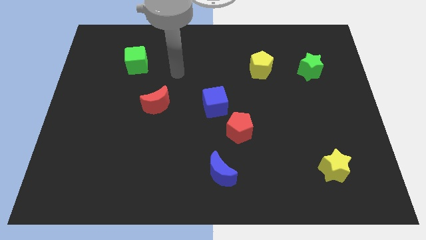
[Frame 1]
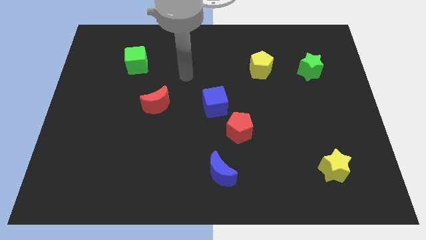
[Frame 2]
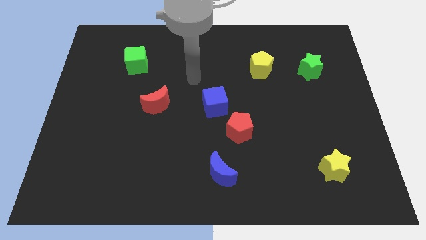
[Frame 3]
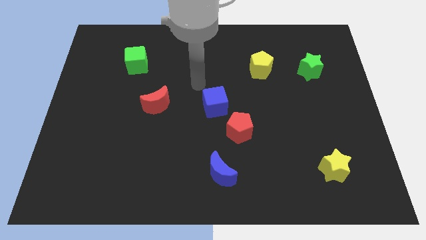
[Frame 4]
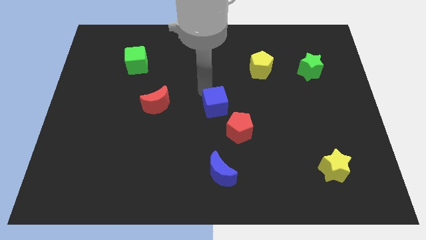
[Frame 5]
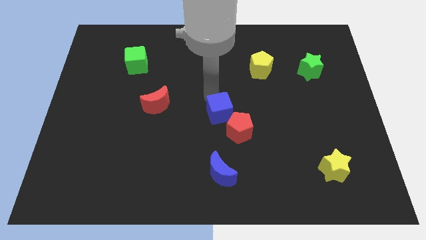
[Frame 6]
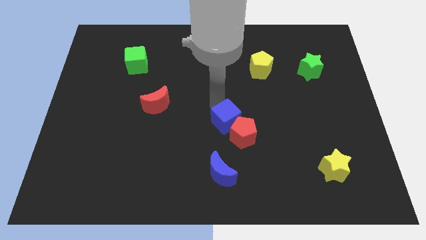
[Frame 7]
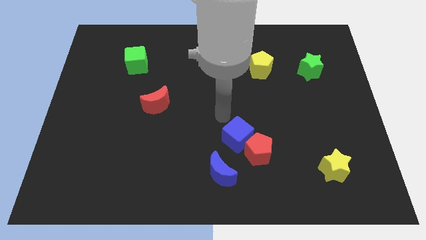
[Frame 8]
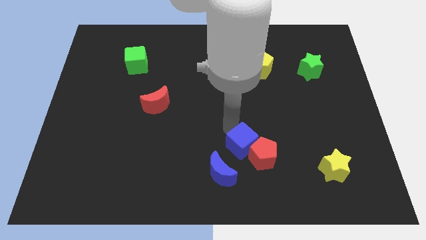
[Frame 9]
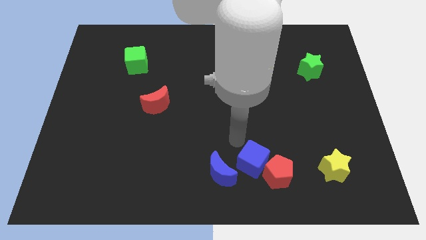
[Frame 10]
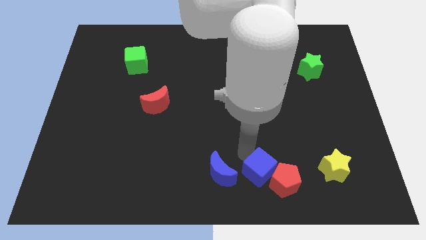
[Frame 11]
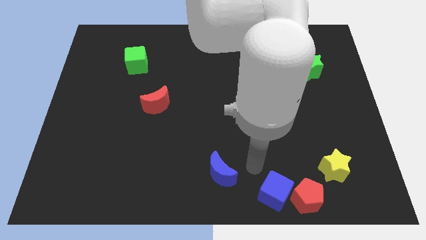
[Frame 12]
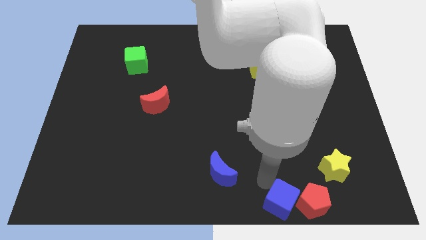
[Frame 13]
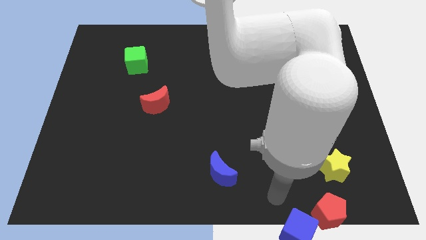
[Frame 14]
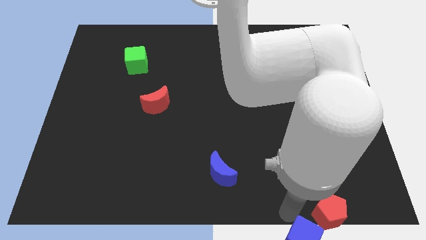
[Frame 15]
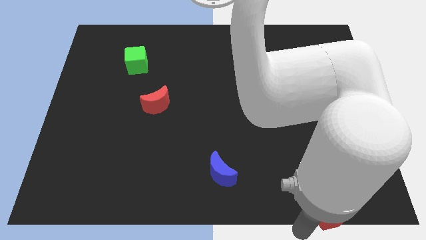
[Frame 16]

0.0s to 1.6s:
move the red pentagon away from the blue cube

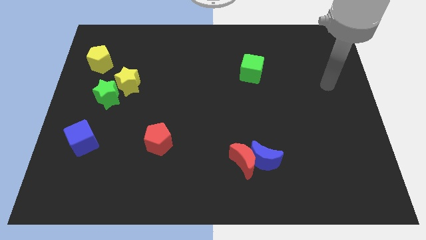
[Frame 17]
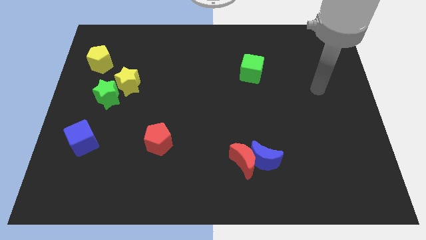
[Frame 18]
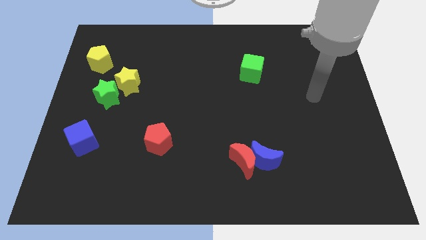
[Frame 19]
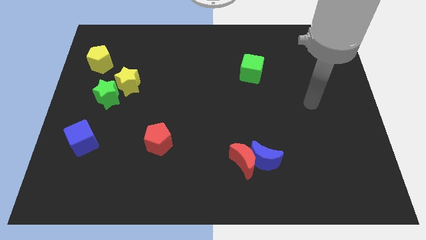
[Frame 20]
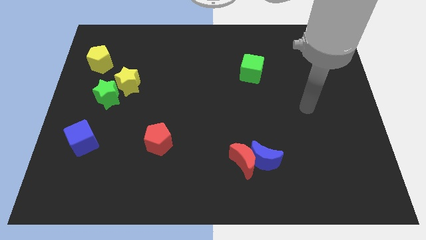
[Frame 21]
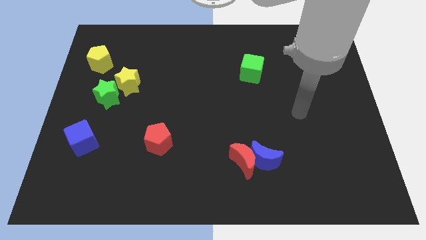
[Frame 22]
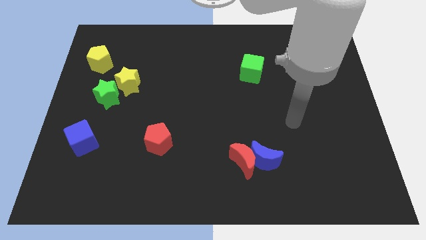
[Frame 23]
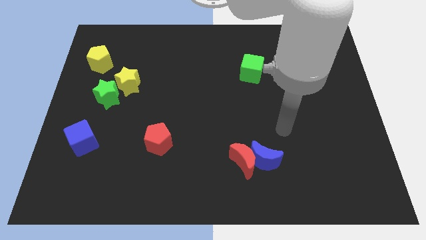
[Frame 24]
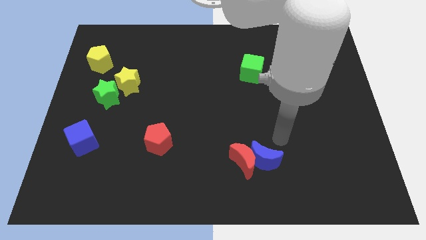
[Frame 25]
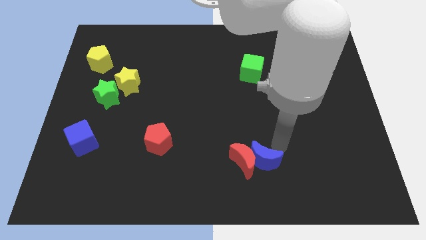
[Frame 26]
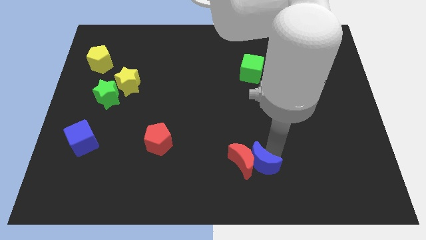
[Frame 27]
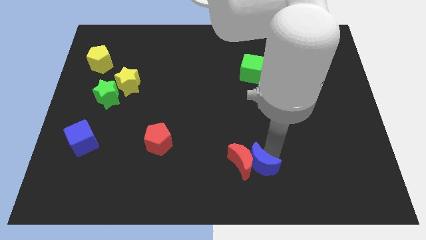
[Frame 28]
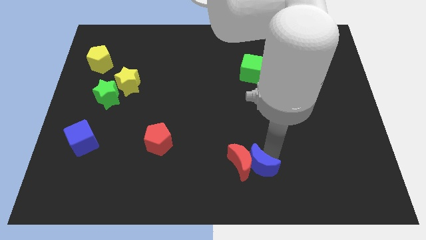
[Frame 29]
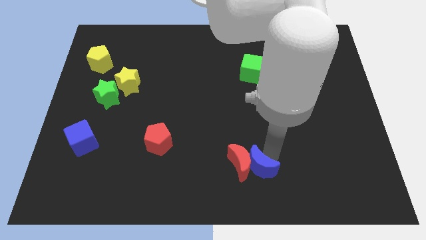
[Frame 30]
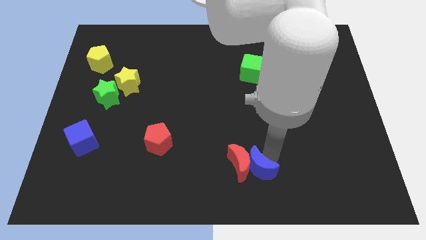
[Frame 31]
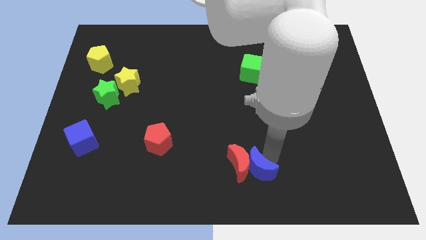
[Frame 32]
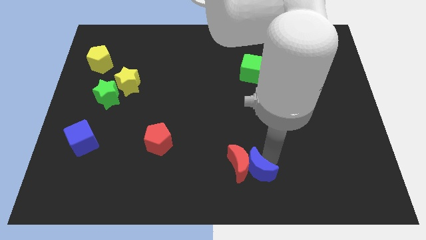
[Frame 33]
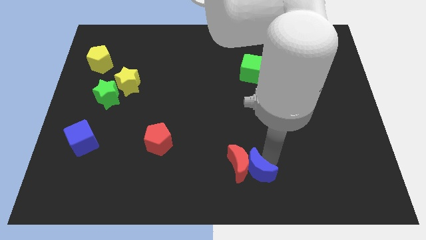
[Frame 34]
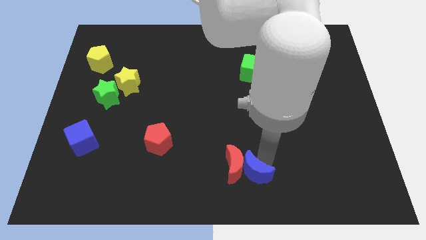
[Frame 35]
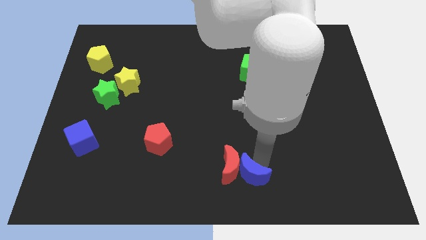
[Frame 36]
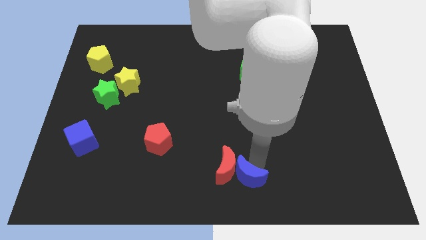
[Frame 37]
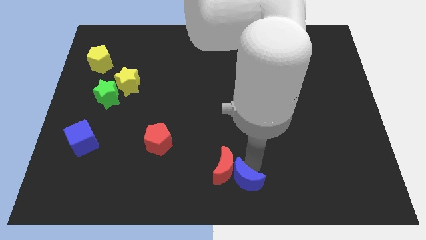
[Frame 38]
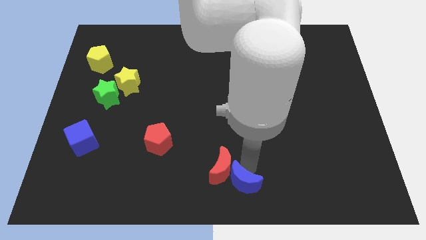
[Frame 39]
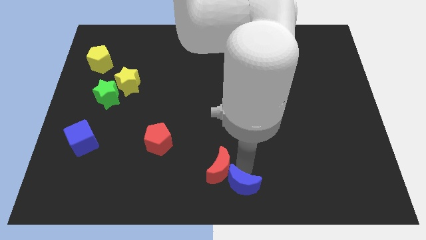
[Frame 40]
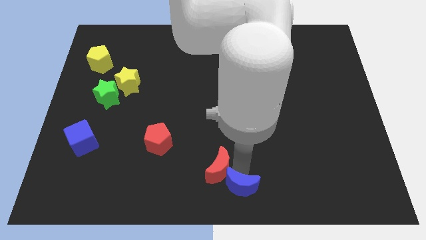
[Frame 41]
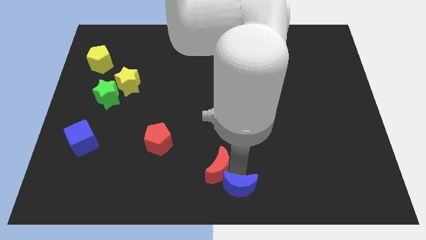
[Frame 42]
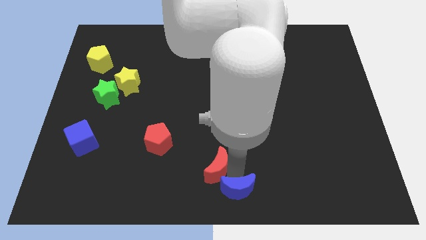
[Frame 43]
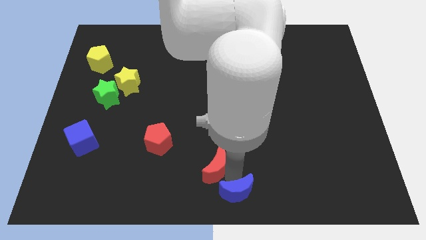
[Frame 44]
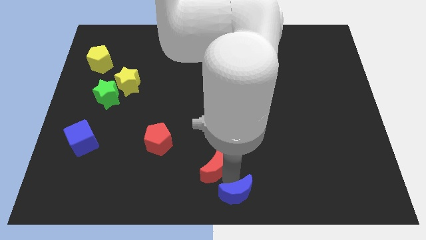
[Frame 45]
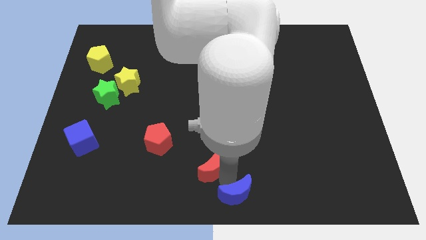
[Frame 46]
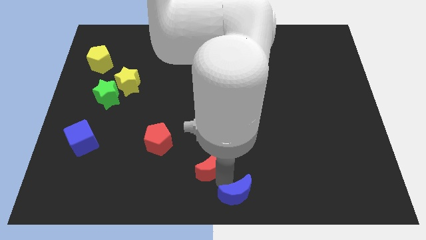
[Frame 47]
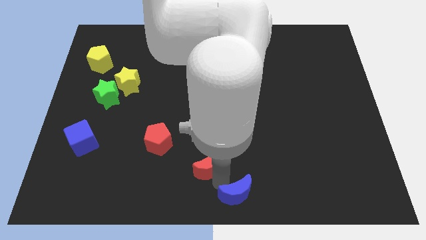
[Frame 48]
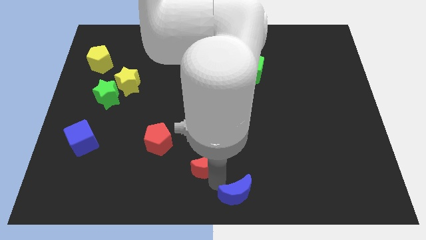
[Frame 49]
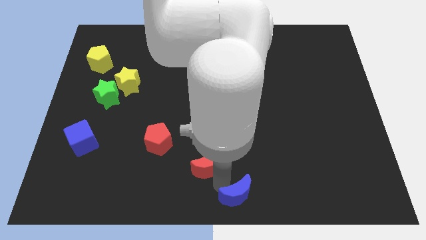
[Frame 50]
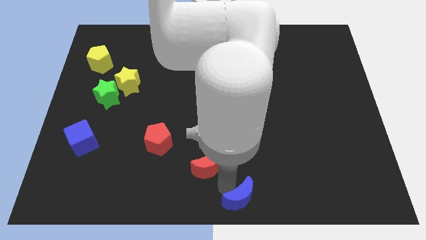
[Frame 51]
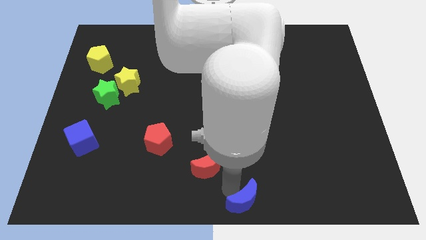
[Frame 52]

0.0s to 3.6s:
separate the red moon from the blue moon

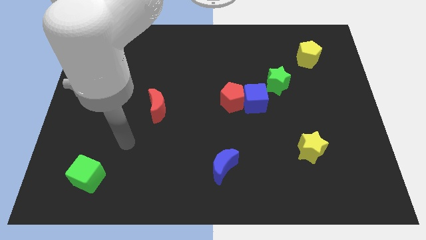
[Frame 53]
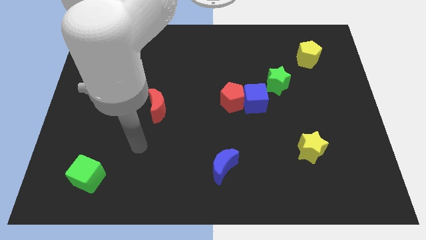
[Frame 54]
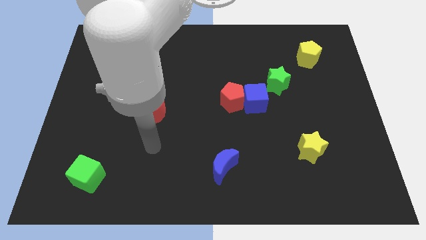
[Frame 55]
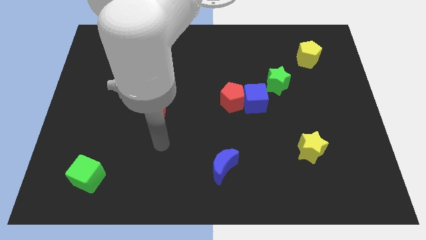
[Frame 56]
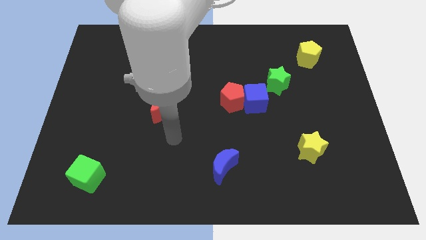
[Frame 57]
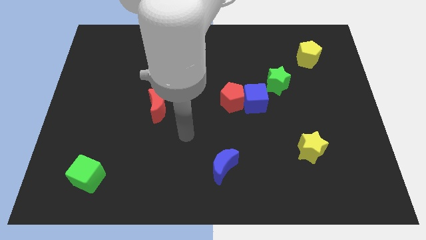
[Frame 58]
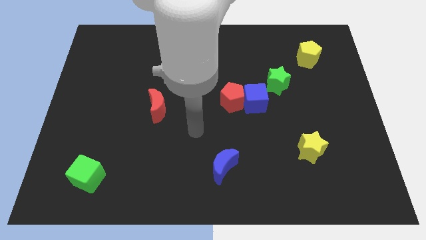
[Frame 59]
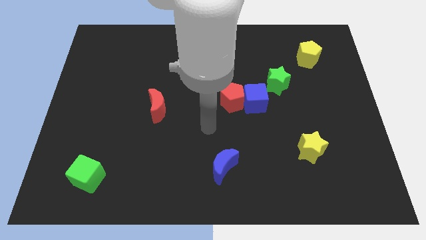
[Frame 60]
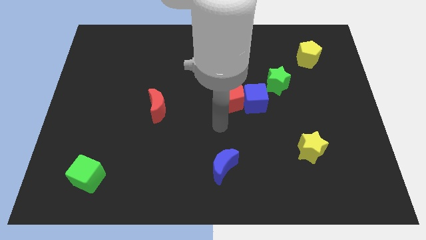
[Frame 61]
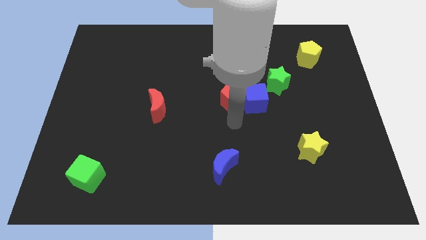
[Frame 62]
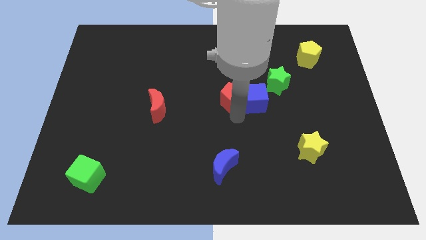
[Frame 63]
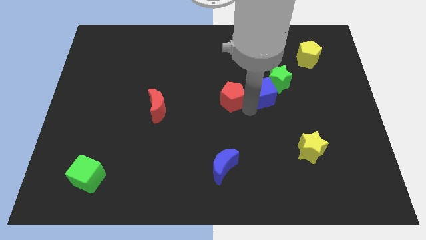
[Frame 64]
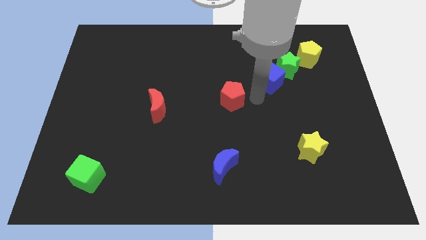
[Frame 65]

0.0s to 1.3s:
pull the red pentagon apart from the blue cube

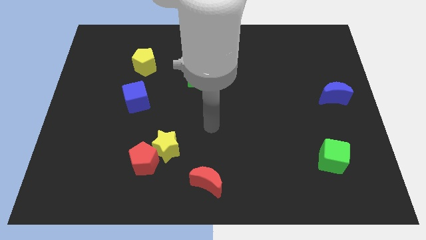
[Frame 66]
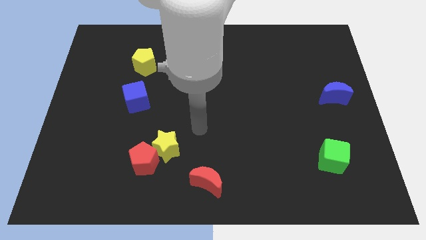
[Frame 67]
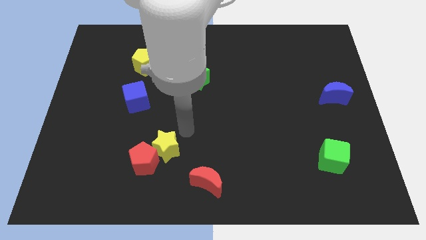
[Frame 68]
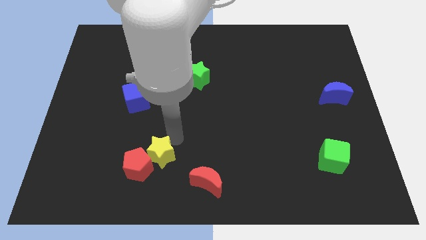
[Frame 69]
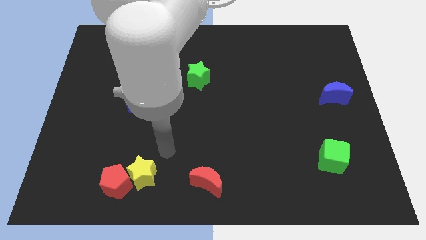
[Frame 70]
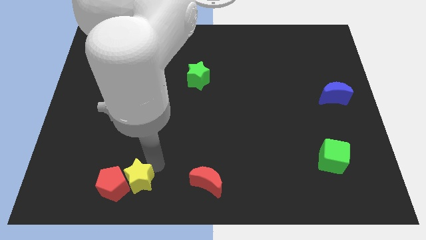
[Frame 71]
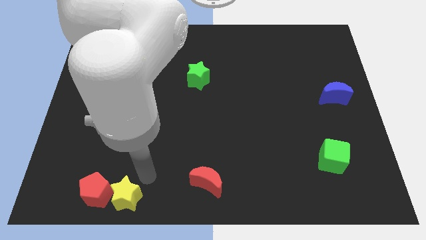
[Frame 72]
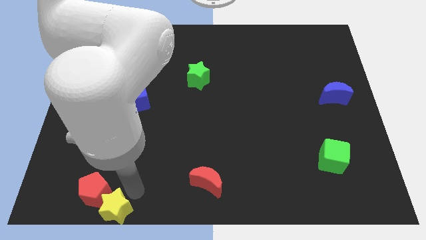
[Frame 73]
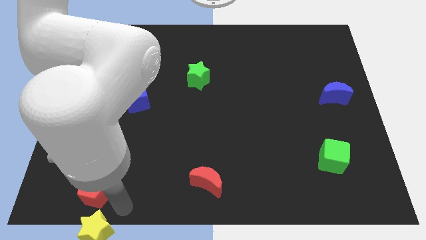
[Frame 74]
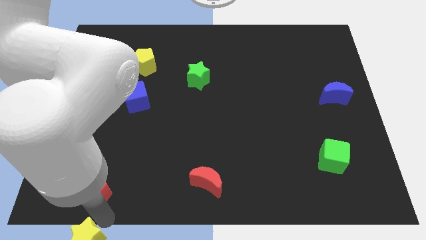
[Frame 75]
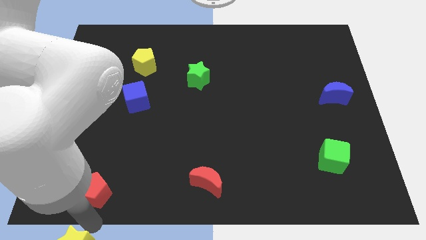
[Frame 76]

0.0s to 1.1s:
pull the red pentagon apart from the yellow star

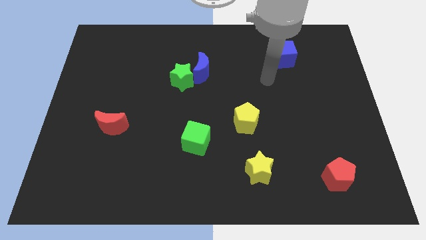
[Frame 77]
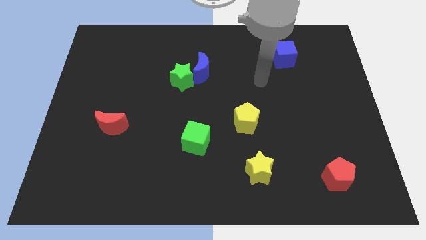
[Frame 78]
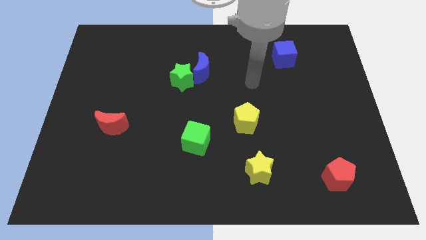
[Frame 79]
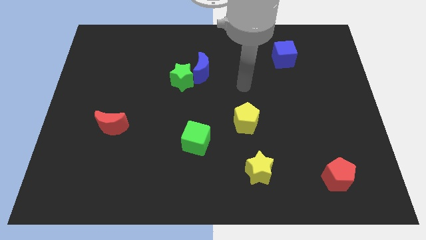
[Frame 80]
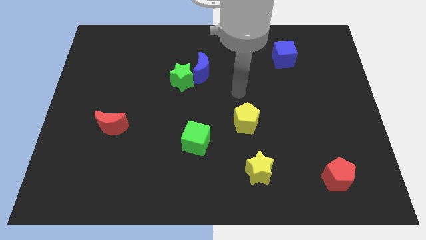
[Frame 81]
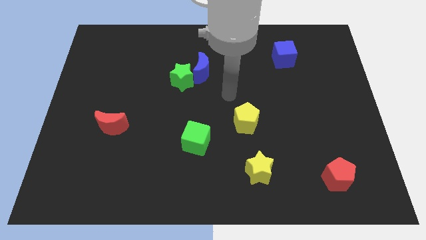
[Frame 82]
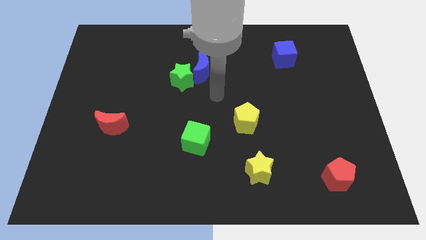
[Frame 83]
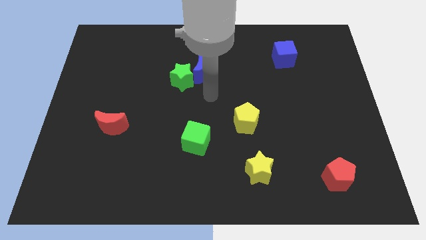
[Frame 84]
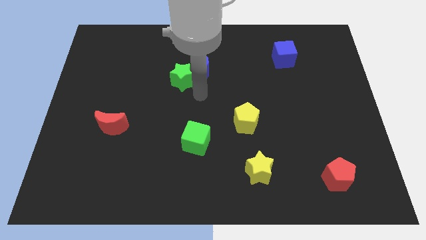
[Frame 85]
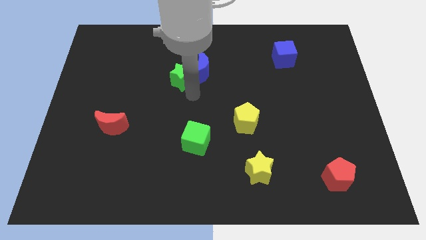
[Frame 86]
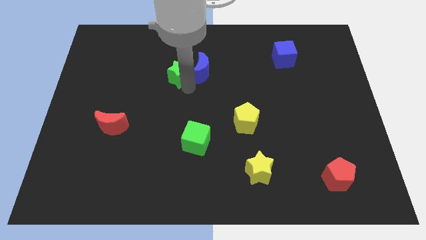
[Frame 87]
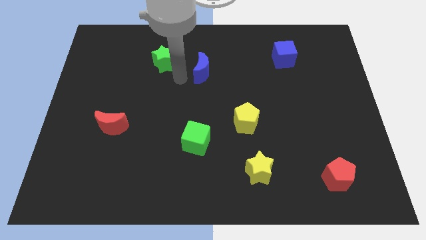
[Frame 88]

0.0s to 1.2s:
separate the blue moon from the green star

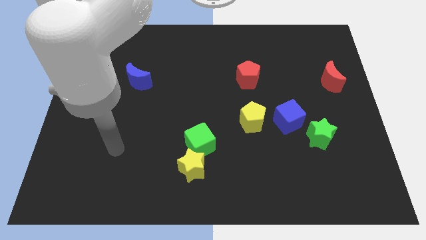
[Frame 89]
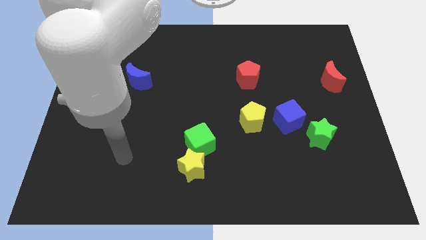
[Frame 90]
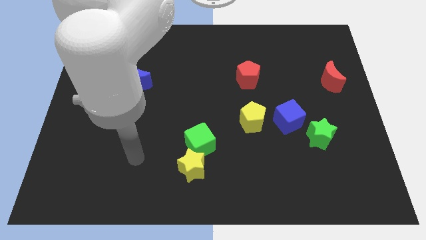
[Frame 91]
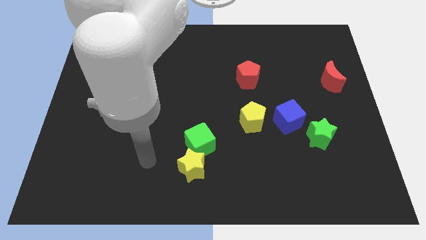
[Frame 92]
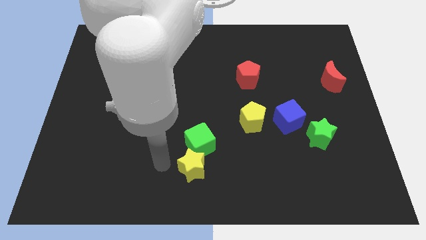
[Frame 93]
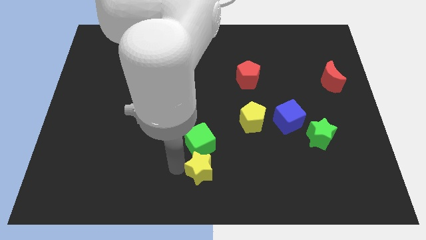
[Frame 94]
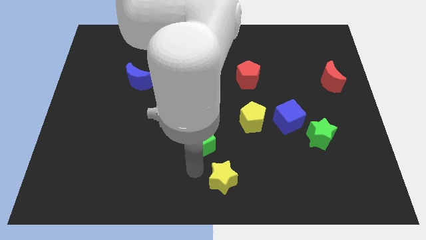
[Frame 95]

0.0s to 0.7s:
separate the green cube from the yellow star
